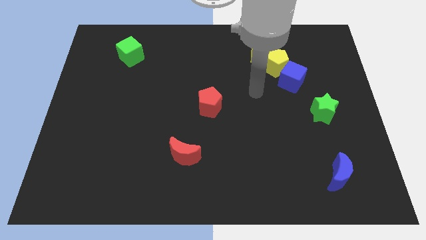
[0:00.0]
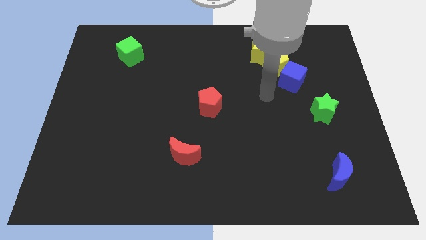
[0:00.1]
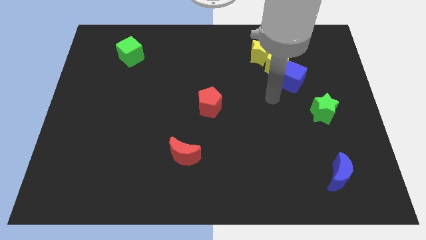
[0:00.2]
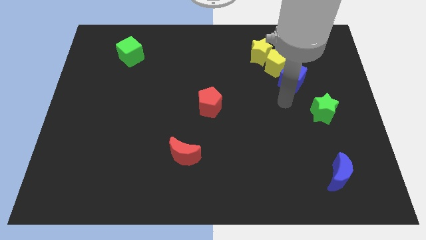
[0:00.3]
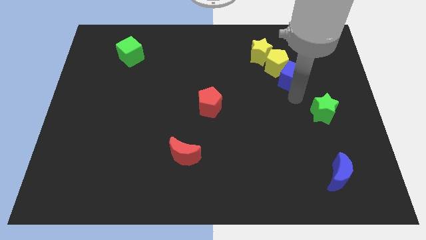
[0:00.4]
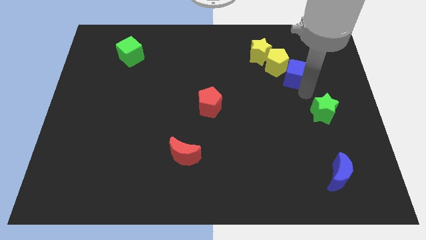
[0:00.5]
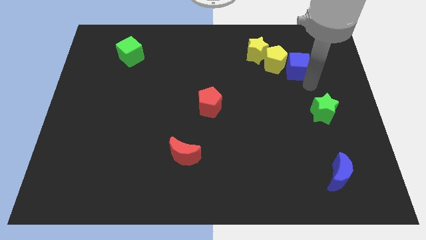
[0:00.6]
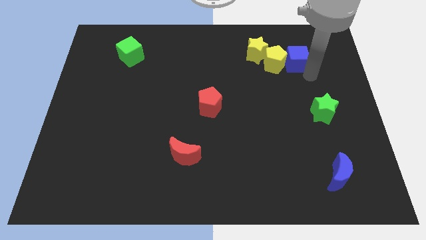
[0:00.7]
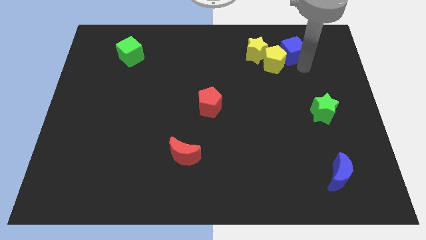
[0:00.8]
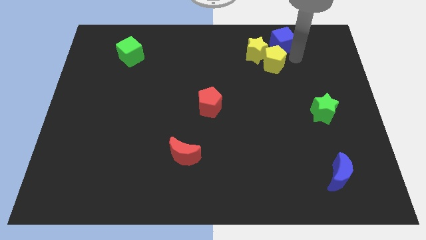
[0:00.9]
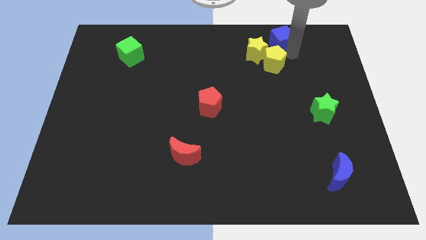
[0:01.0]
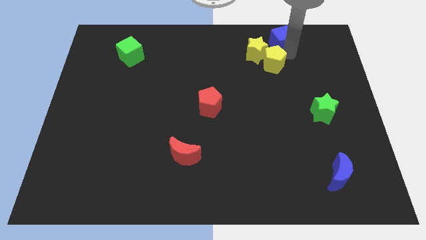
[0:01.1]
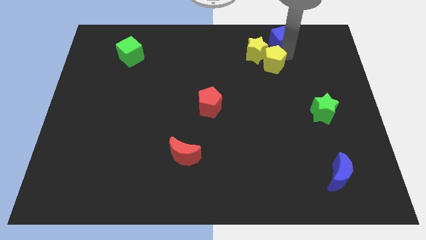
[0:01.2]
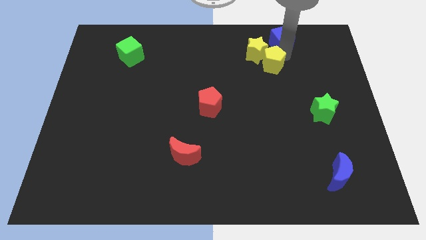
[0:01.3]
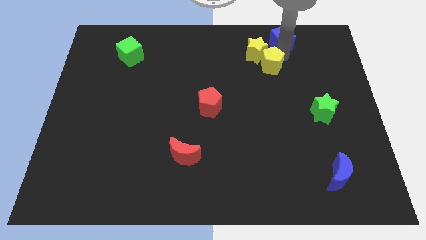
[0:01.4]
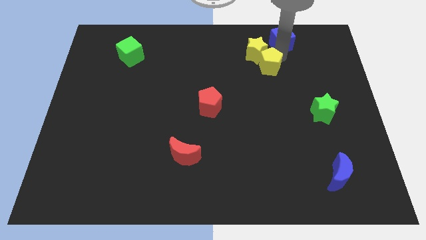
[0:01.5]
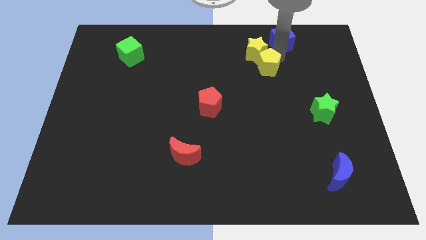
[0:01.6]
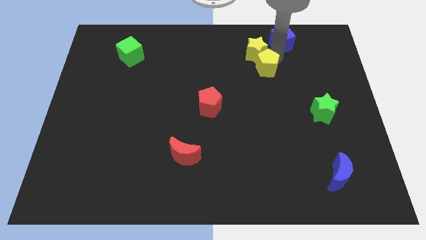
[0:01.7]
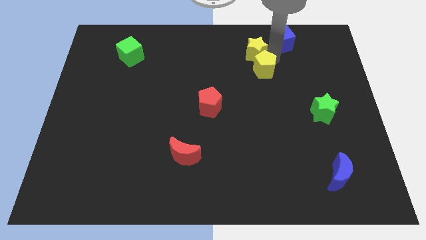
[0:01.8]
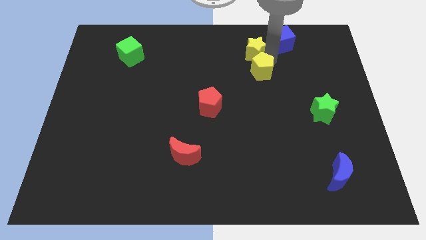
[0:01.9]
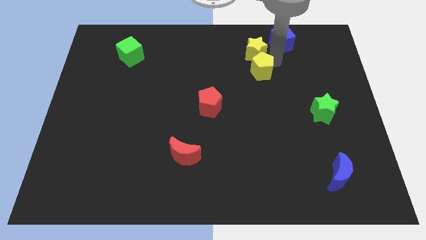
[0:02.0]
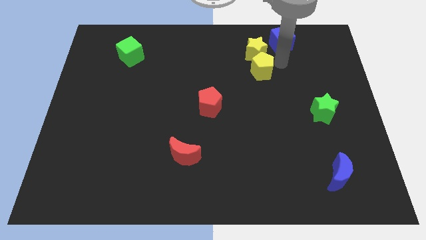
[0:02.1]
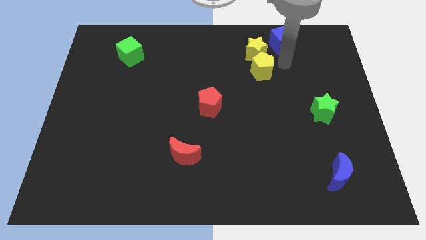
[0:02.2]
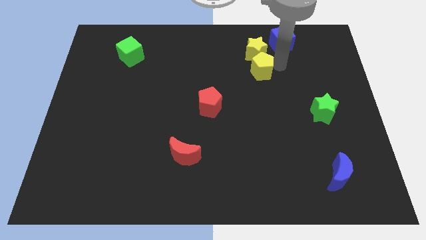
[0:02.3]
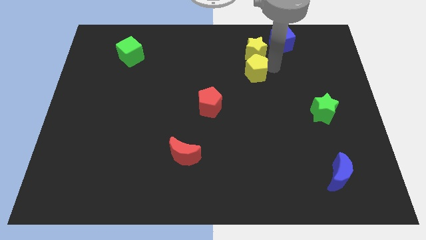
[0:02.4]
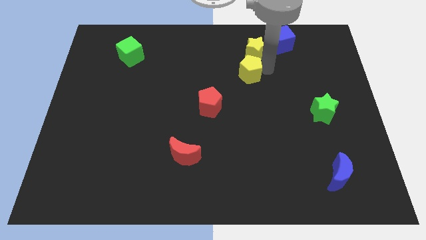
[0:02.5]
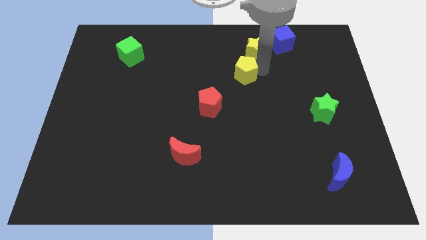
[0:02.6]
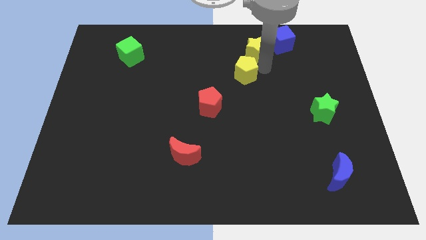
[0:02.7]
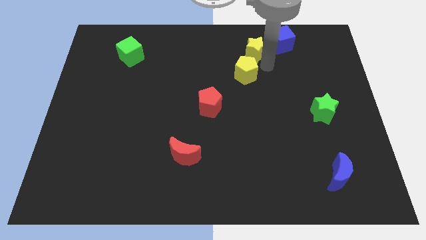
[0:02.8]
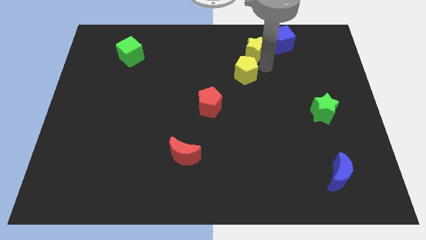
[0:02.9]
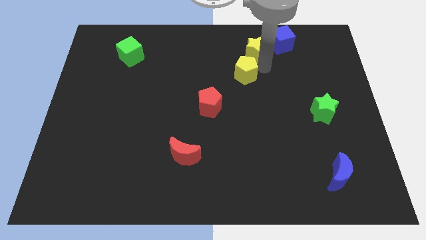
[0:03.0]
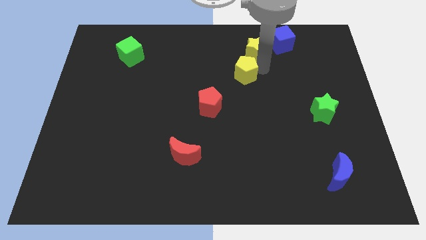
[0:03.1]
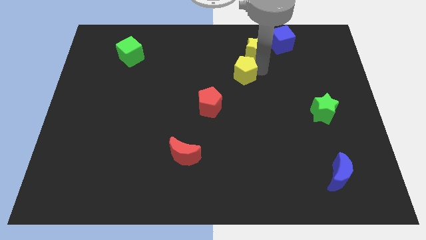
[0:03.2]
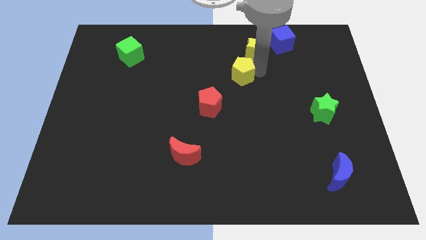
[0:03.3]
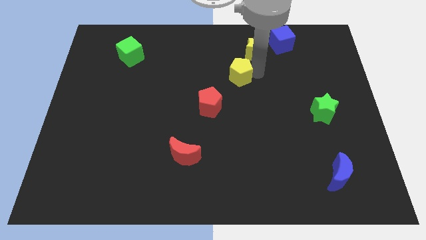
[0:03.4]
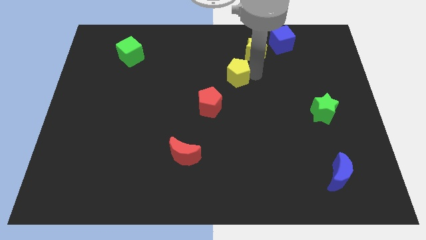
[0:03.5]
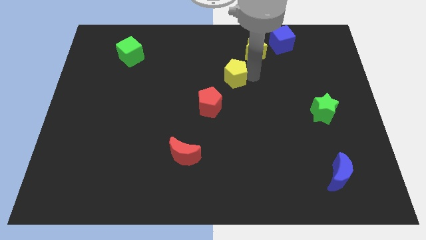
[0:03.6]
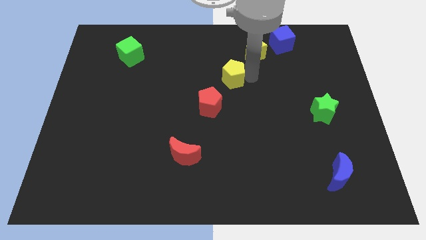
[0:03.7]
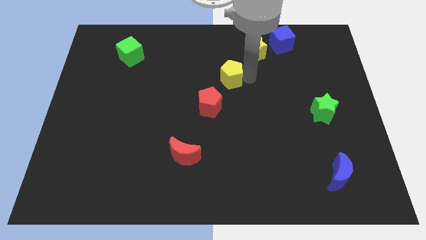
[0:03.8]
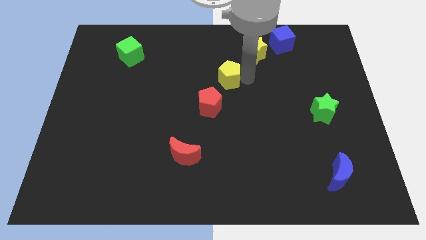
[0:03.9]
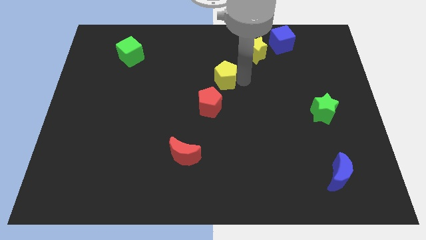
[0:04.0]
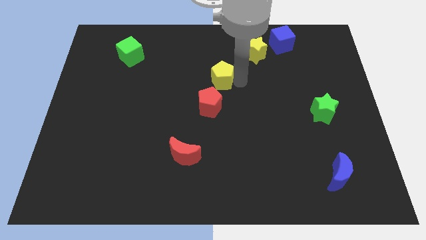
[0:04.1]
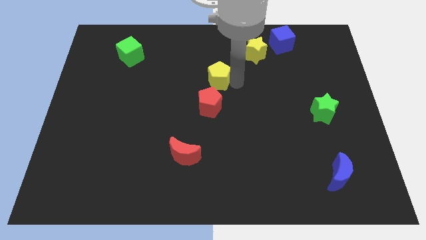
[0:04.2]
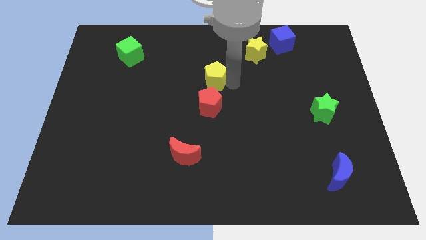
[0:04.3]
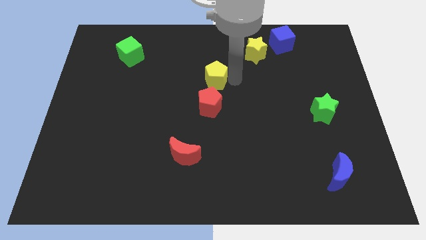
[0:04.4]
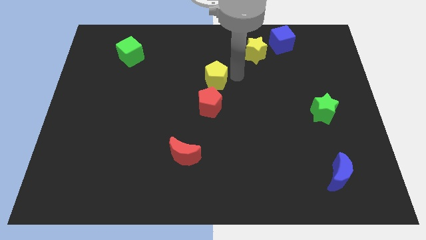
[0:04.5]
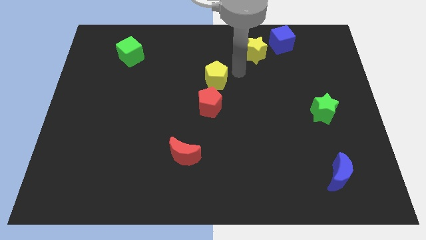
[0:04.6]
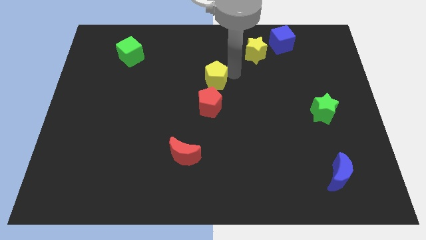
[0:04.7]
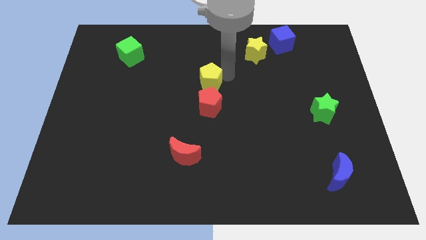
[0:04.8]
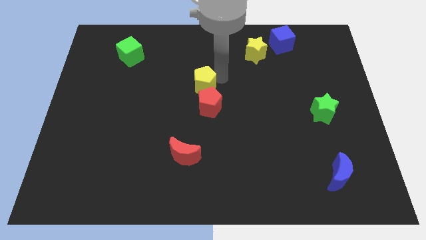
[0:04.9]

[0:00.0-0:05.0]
slide the yellow pentagon to the top left side of the red pentagon

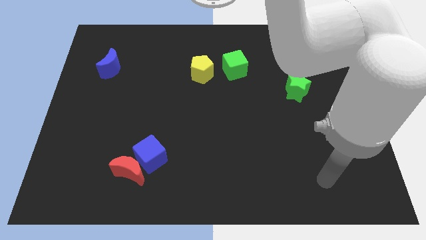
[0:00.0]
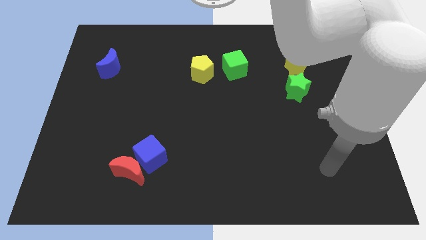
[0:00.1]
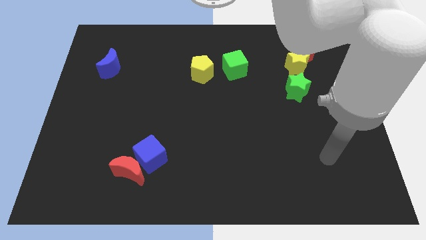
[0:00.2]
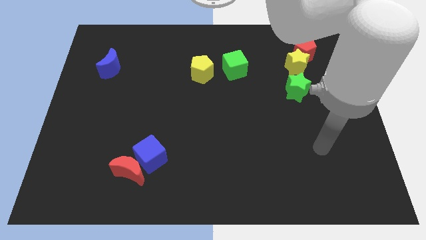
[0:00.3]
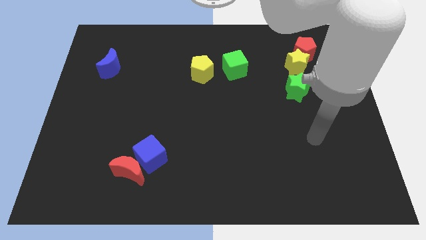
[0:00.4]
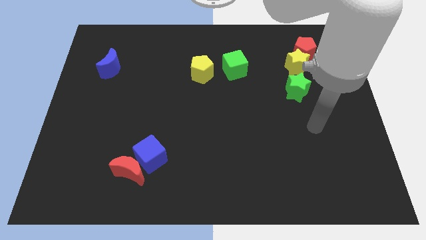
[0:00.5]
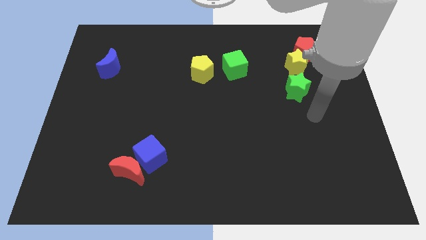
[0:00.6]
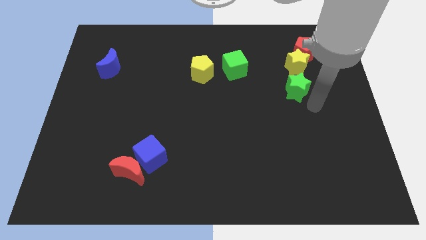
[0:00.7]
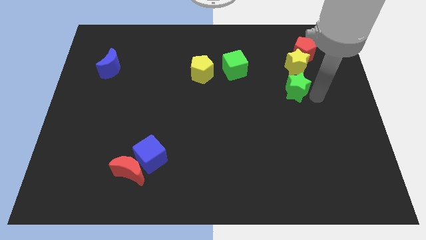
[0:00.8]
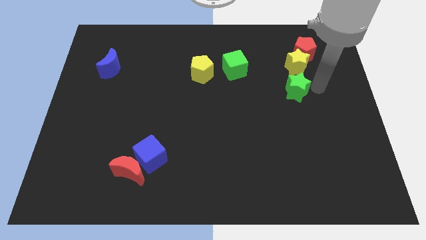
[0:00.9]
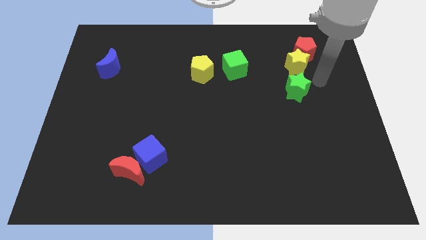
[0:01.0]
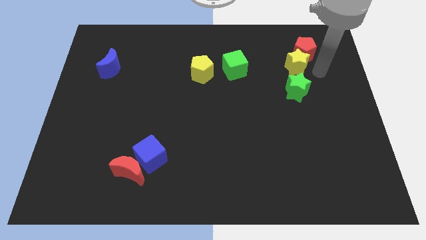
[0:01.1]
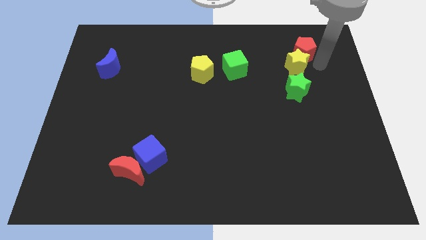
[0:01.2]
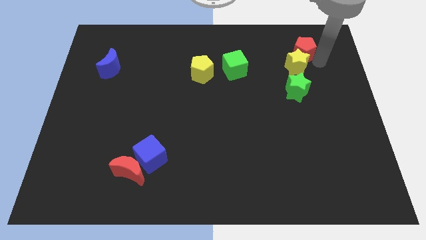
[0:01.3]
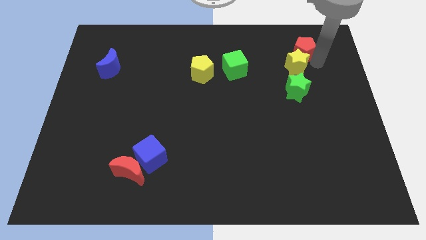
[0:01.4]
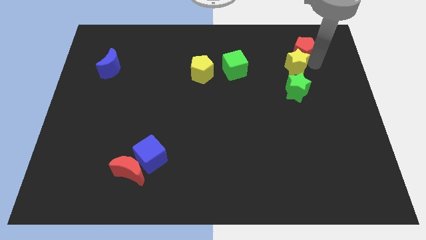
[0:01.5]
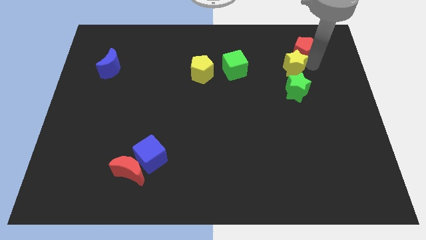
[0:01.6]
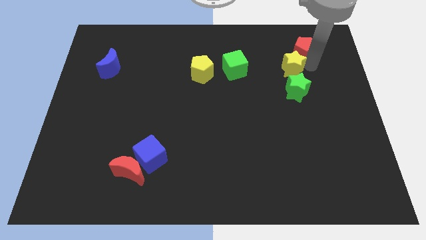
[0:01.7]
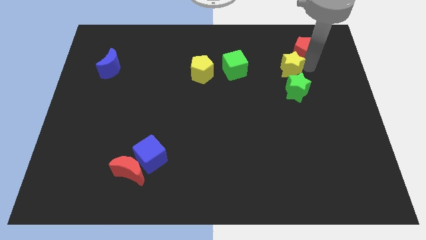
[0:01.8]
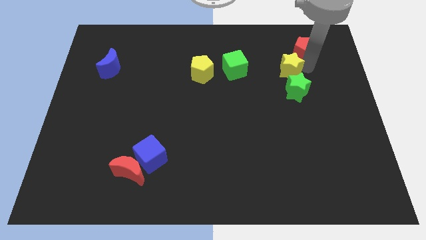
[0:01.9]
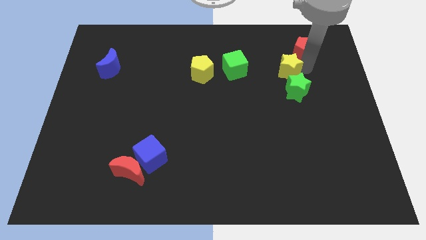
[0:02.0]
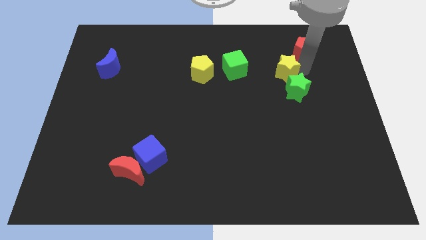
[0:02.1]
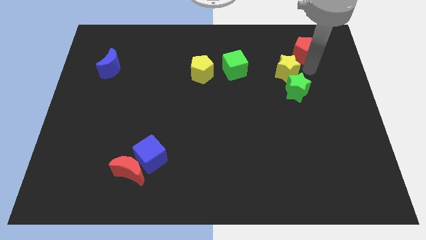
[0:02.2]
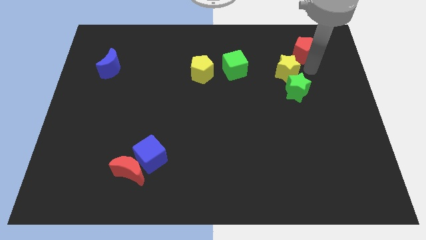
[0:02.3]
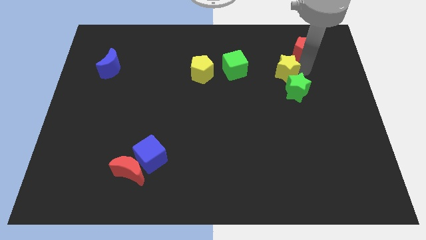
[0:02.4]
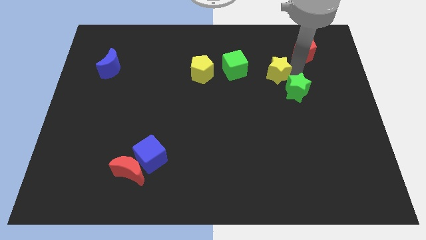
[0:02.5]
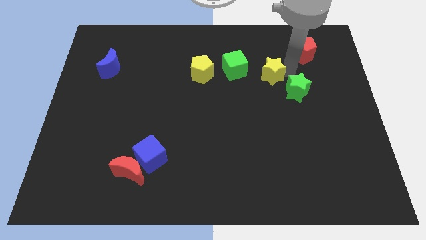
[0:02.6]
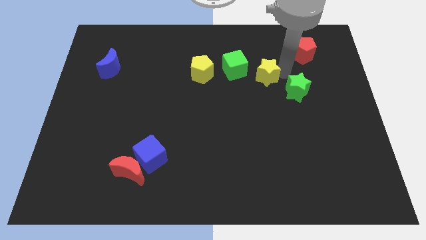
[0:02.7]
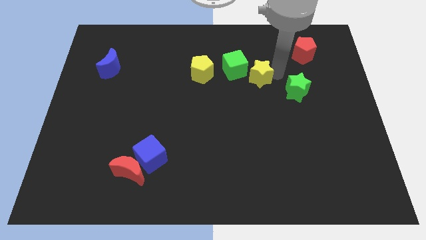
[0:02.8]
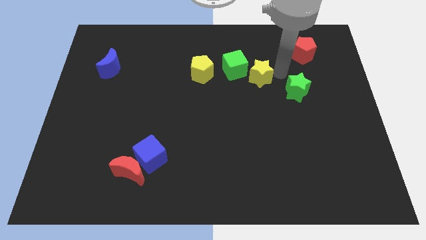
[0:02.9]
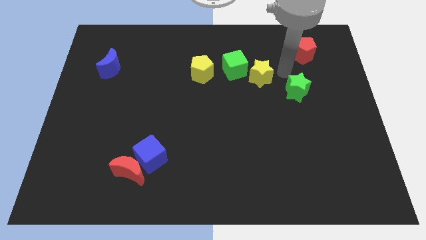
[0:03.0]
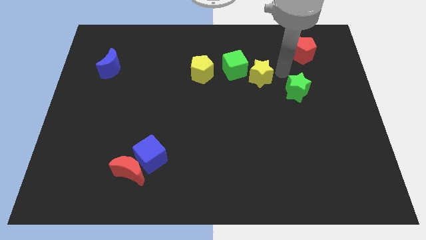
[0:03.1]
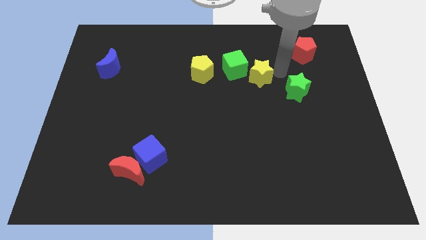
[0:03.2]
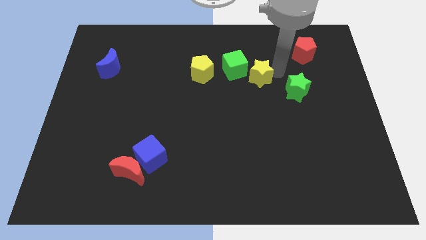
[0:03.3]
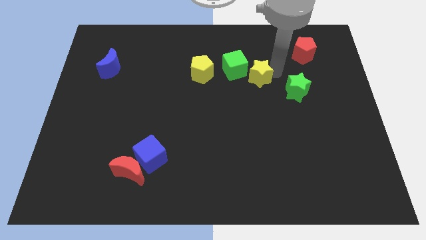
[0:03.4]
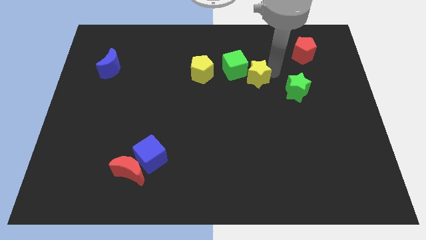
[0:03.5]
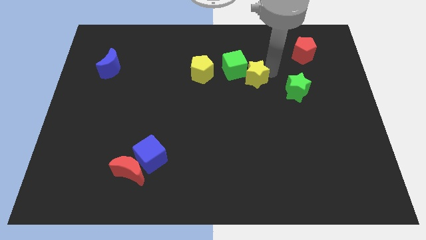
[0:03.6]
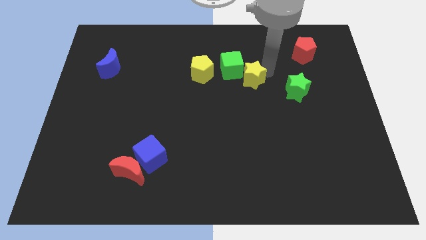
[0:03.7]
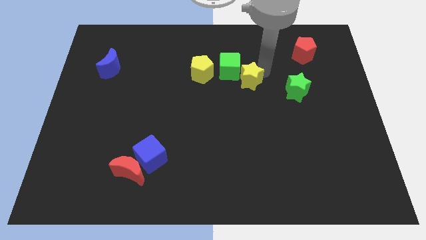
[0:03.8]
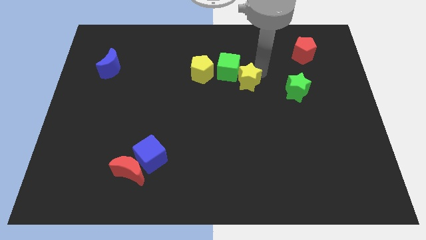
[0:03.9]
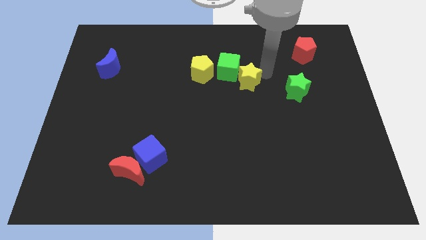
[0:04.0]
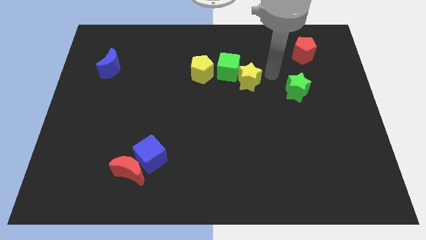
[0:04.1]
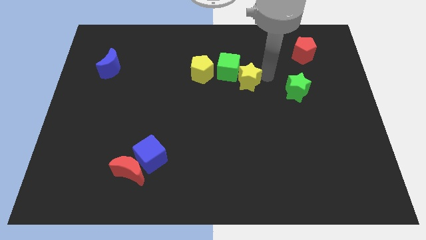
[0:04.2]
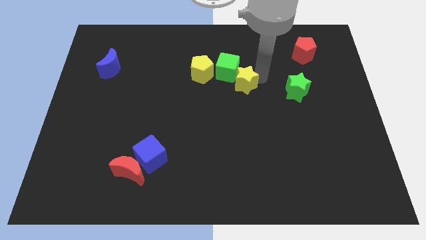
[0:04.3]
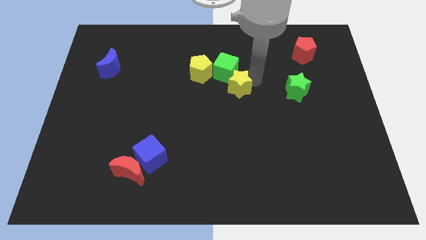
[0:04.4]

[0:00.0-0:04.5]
push the yellow star to the bottom right of the yellow pentagon
